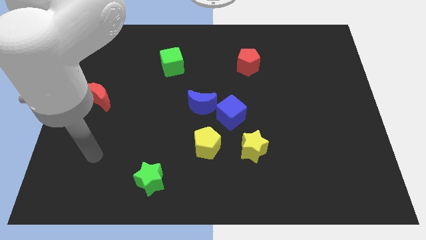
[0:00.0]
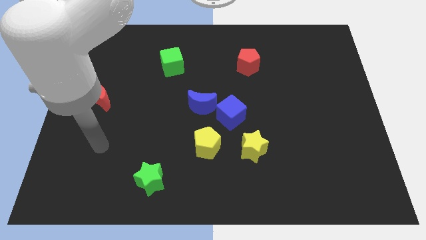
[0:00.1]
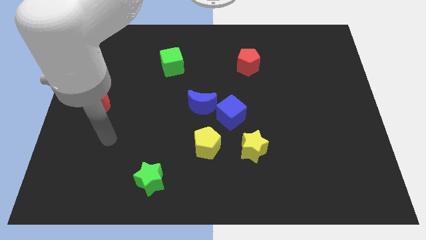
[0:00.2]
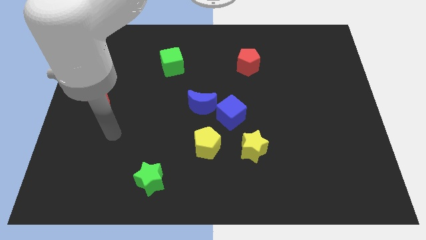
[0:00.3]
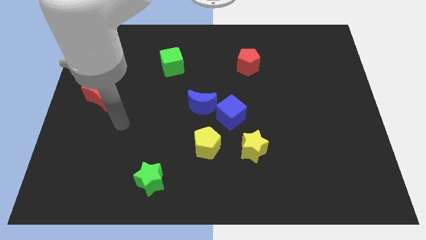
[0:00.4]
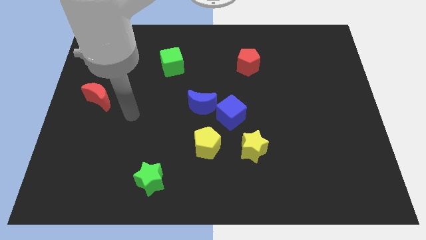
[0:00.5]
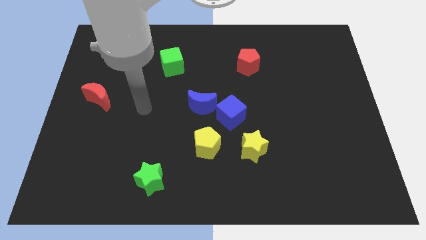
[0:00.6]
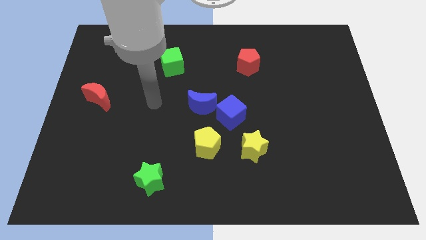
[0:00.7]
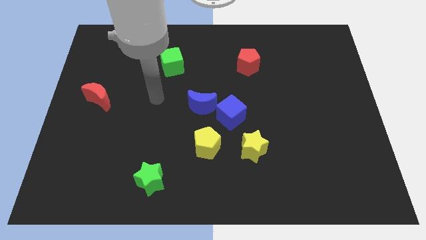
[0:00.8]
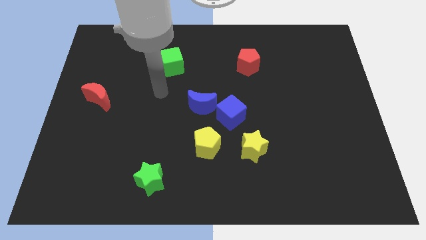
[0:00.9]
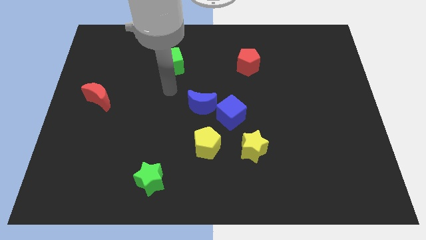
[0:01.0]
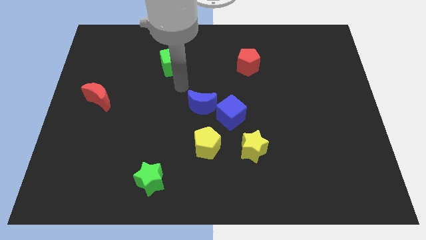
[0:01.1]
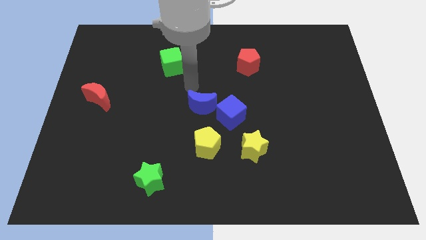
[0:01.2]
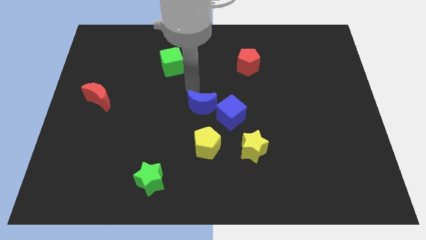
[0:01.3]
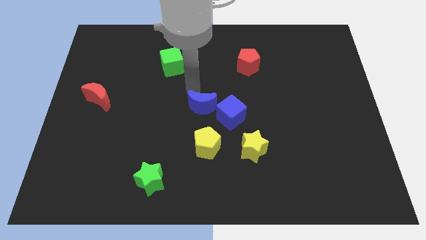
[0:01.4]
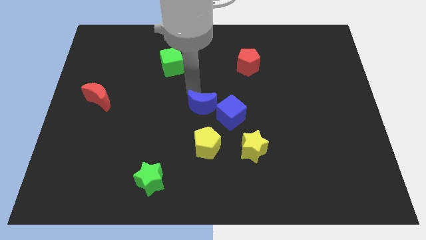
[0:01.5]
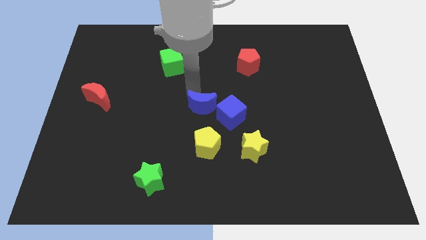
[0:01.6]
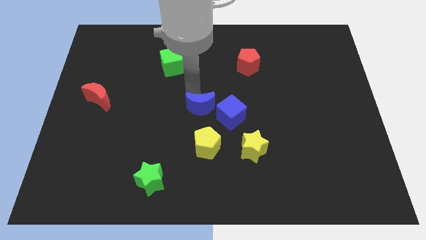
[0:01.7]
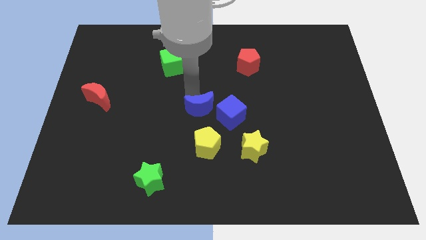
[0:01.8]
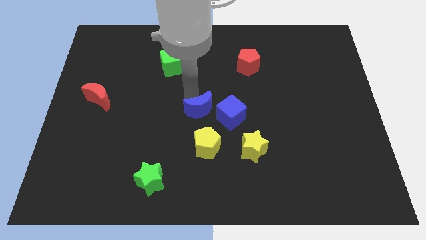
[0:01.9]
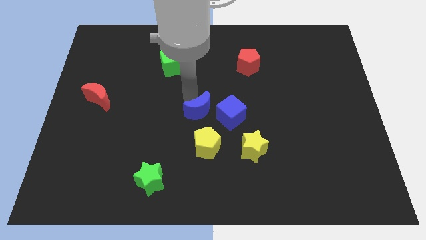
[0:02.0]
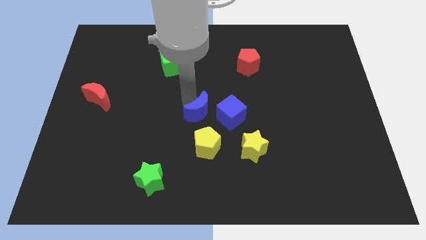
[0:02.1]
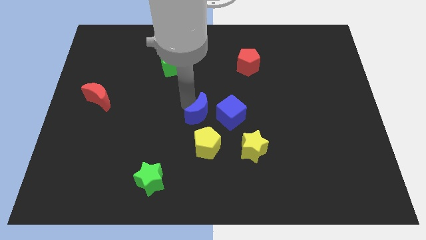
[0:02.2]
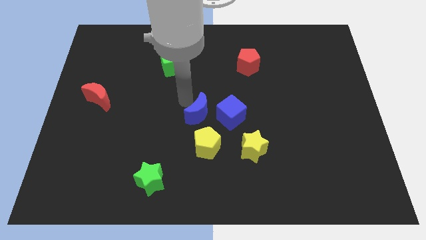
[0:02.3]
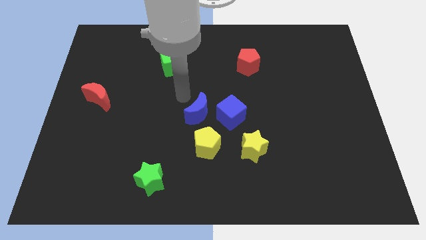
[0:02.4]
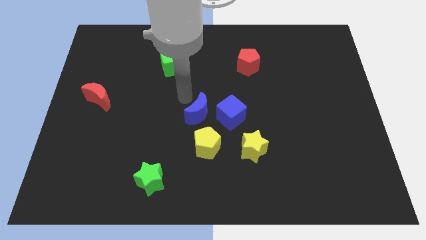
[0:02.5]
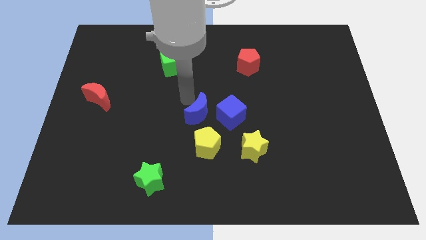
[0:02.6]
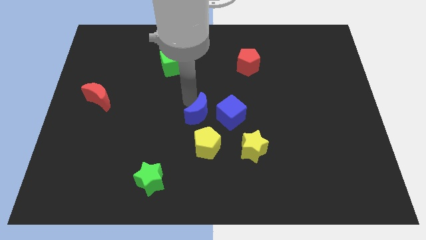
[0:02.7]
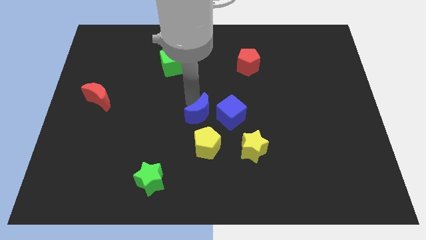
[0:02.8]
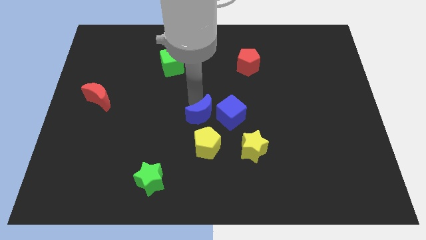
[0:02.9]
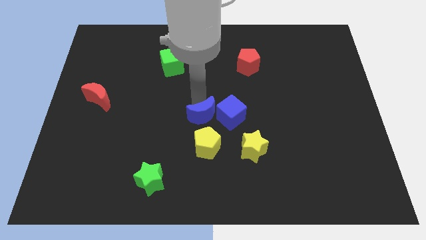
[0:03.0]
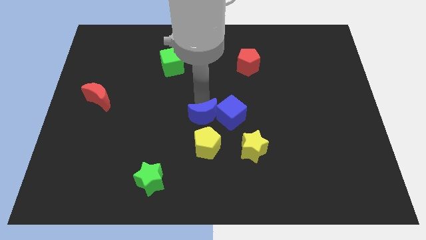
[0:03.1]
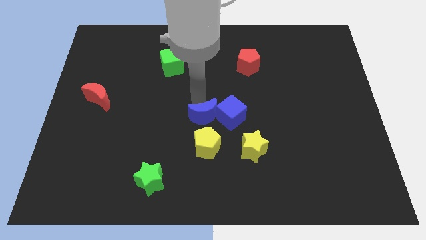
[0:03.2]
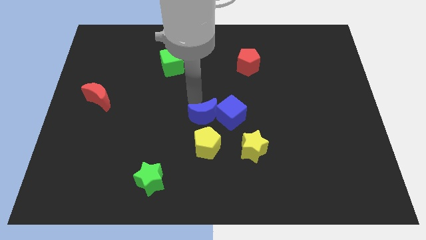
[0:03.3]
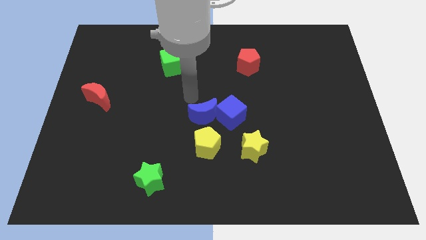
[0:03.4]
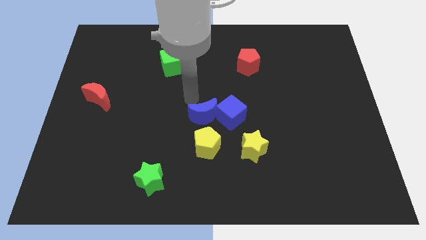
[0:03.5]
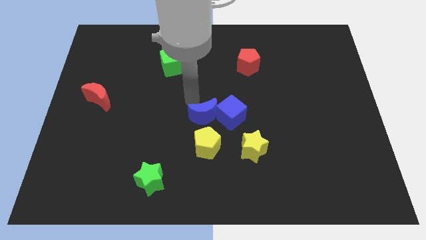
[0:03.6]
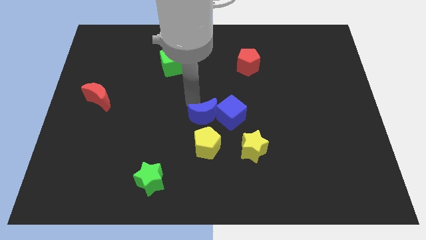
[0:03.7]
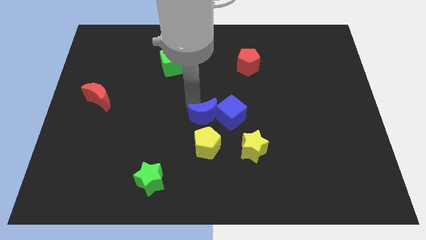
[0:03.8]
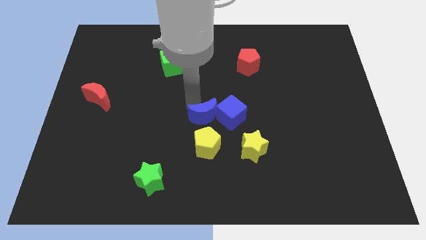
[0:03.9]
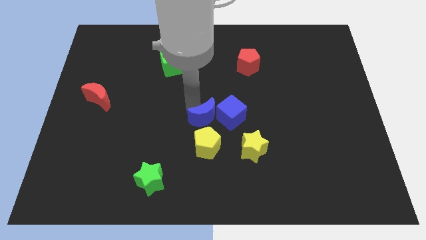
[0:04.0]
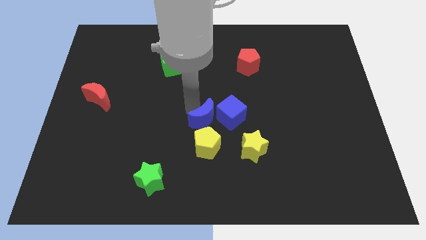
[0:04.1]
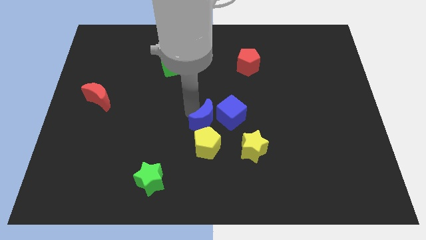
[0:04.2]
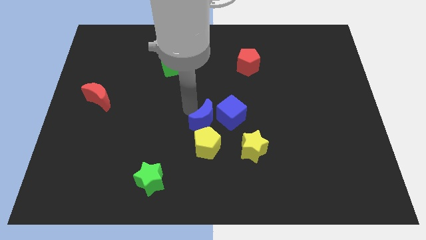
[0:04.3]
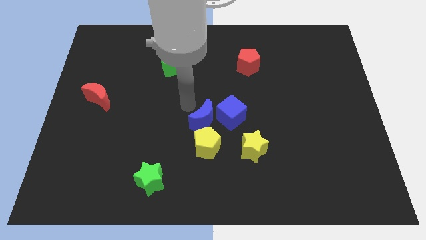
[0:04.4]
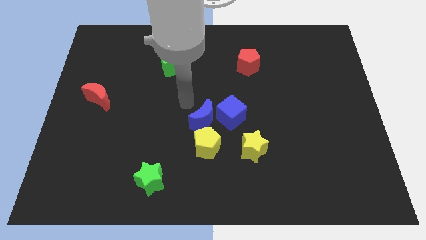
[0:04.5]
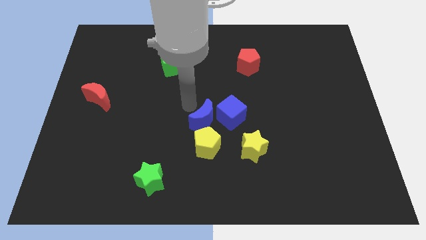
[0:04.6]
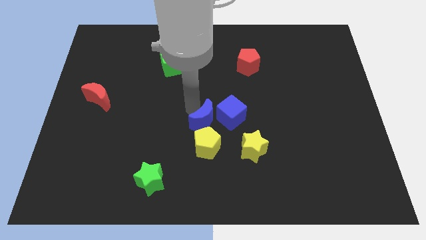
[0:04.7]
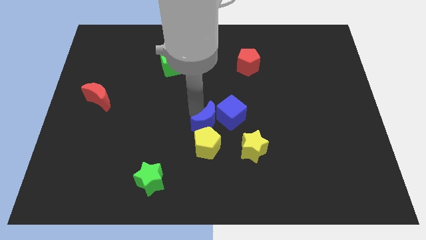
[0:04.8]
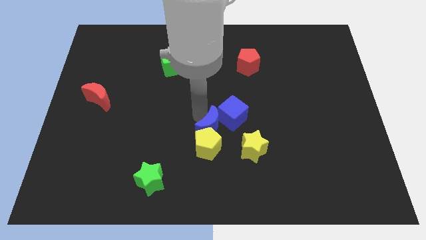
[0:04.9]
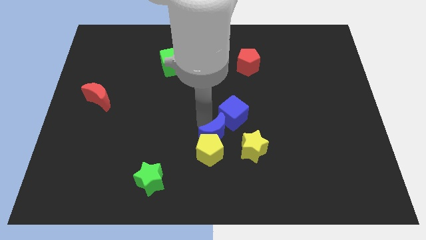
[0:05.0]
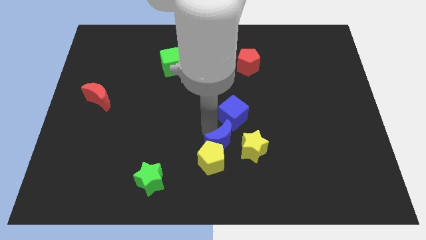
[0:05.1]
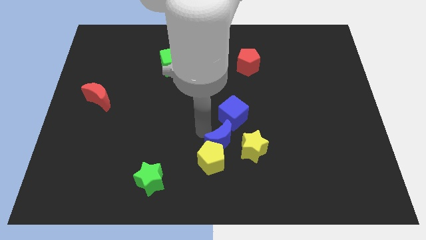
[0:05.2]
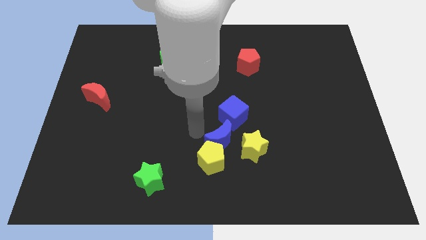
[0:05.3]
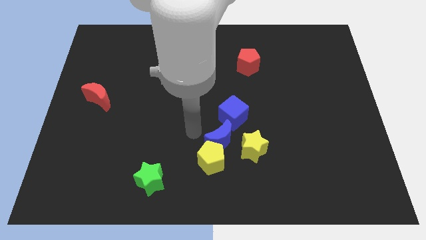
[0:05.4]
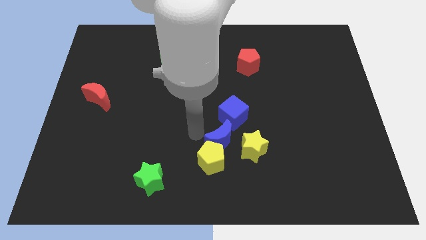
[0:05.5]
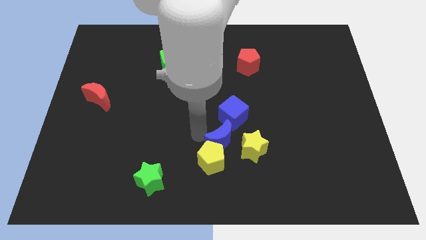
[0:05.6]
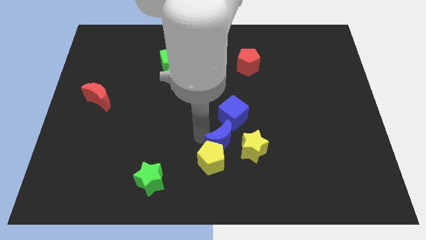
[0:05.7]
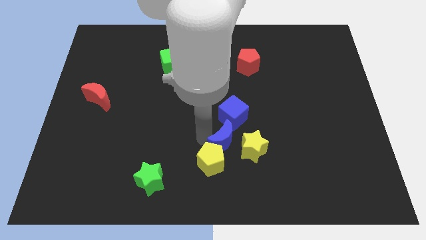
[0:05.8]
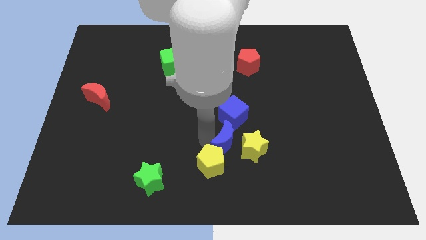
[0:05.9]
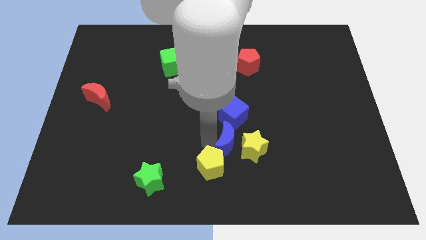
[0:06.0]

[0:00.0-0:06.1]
move the blue moon to the yellow star

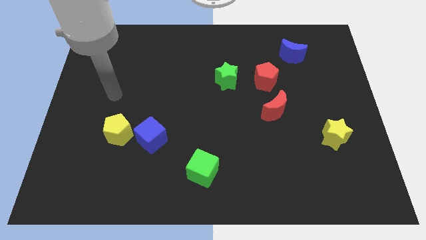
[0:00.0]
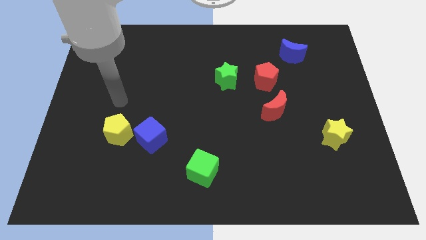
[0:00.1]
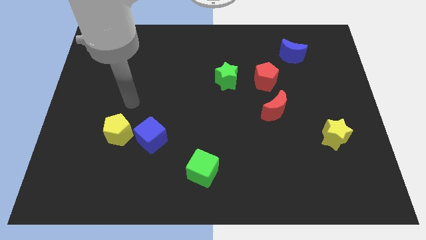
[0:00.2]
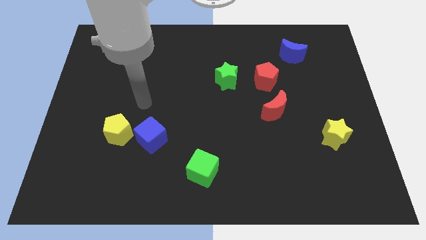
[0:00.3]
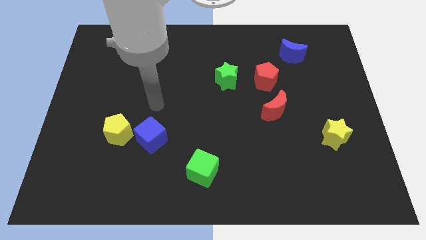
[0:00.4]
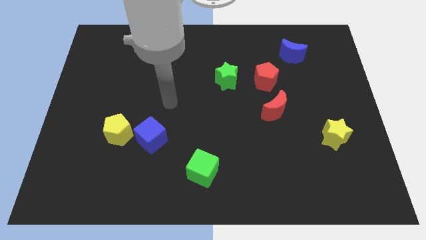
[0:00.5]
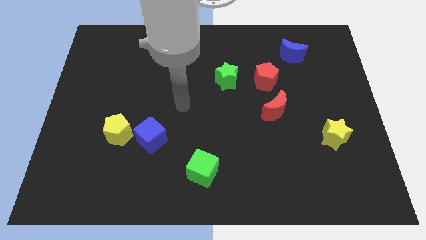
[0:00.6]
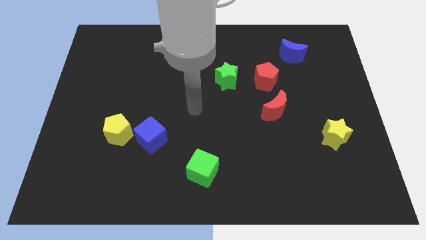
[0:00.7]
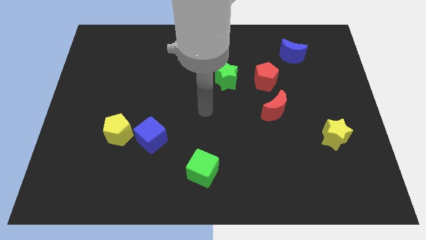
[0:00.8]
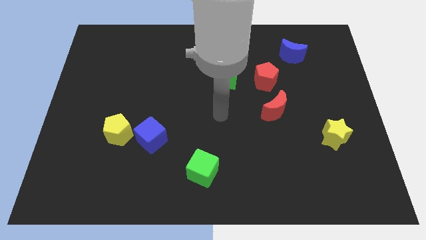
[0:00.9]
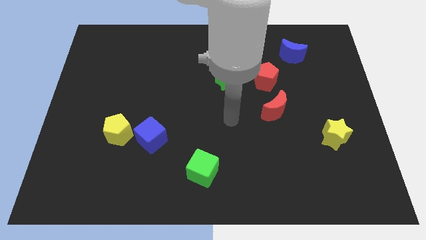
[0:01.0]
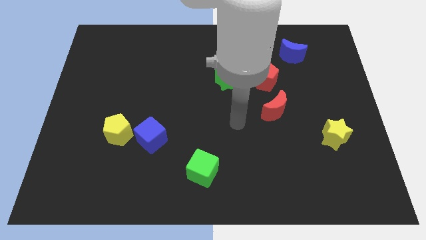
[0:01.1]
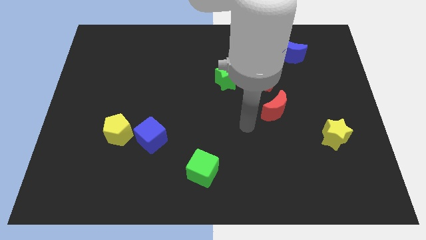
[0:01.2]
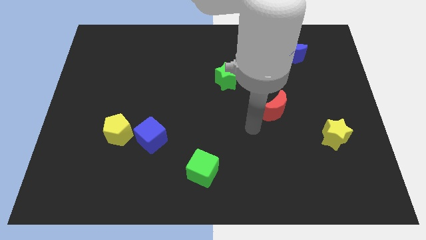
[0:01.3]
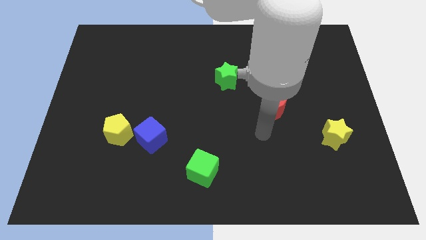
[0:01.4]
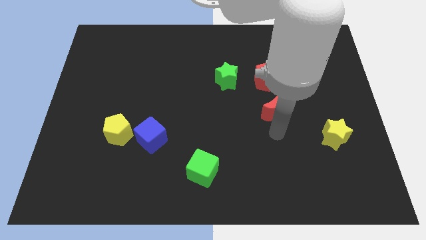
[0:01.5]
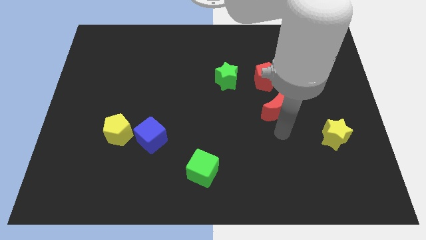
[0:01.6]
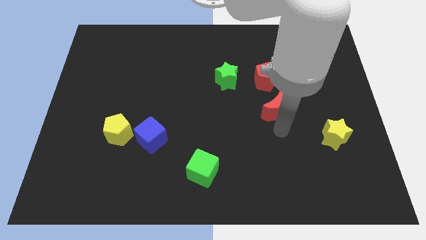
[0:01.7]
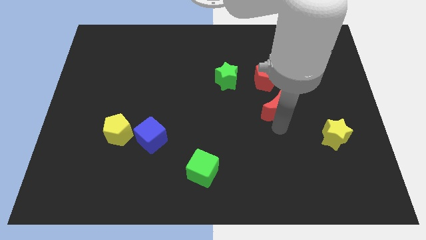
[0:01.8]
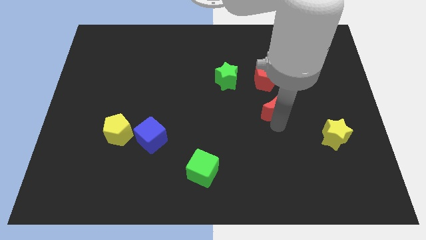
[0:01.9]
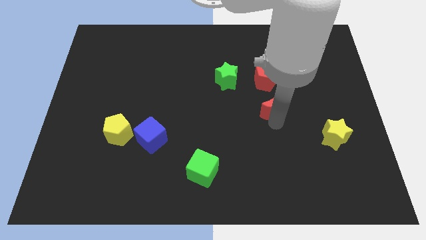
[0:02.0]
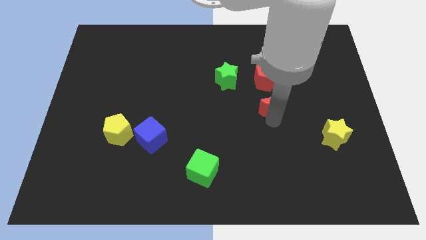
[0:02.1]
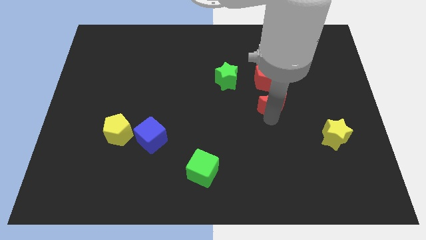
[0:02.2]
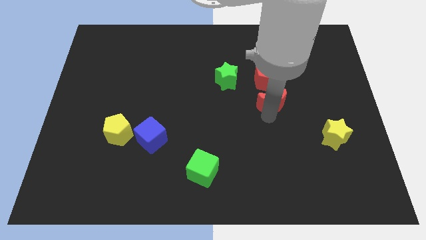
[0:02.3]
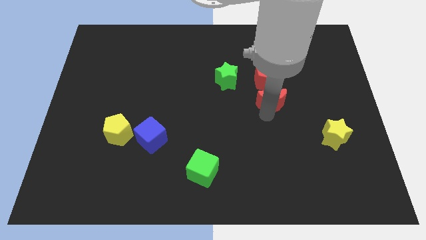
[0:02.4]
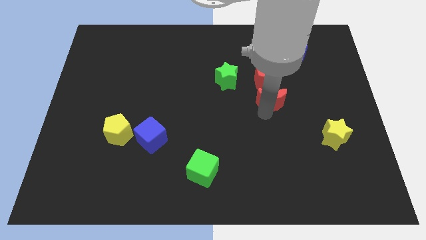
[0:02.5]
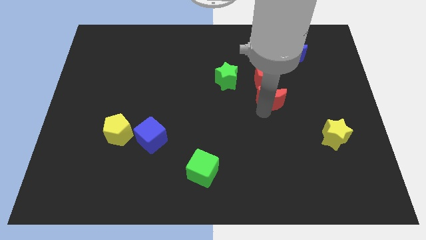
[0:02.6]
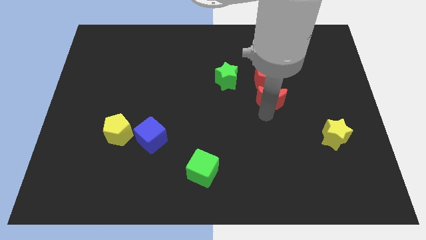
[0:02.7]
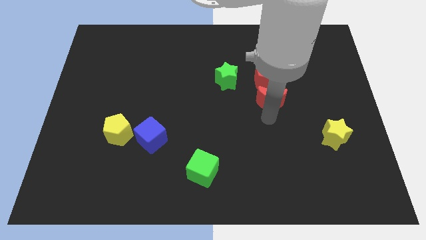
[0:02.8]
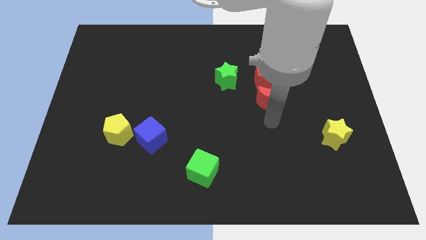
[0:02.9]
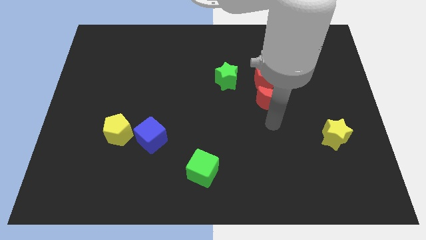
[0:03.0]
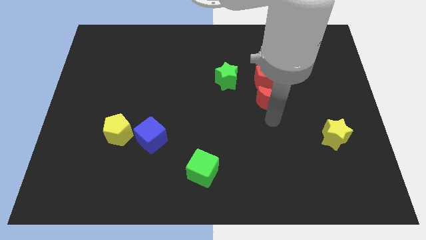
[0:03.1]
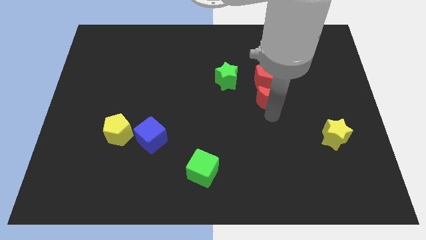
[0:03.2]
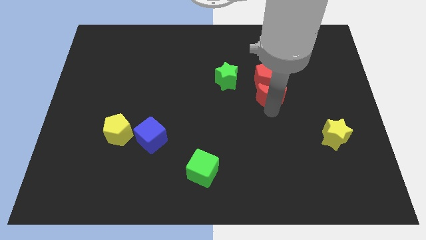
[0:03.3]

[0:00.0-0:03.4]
push the red moon to the red pentagon
